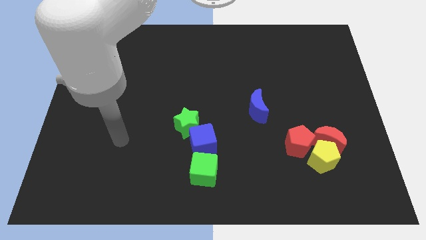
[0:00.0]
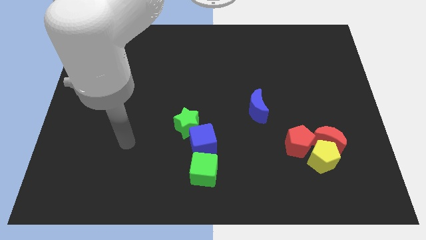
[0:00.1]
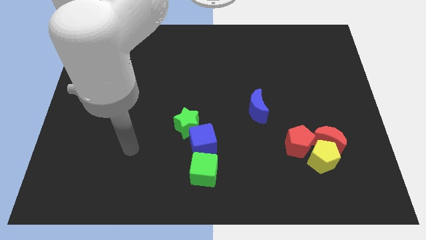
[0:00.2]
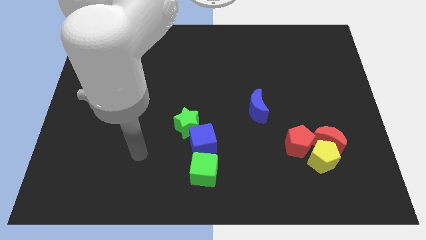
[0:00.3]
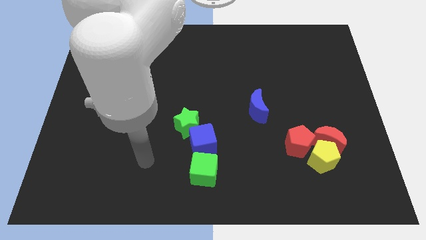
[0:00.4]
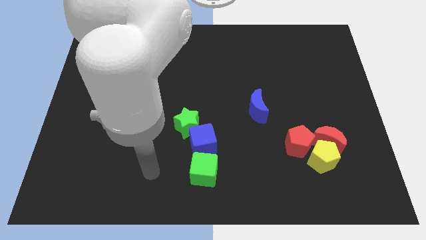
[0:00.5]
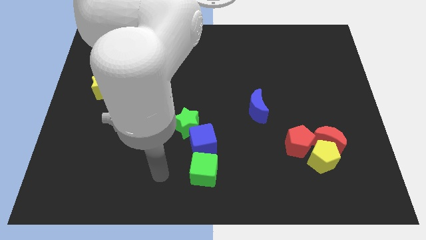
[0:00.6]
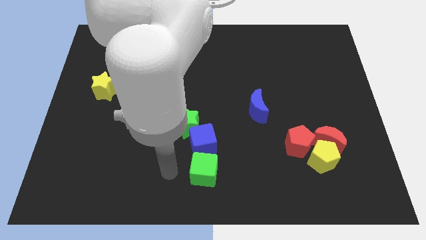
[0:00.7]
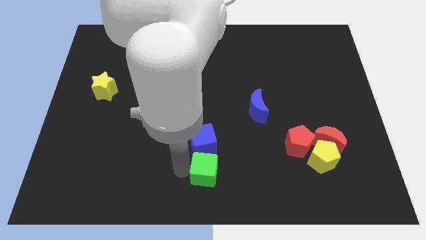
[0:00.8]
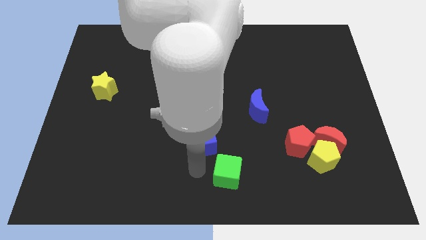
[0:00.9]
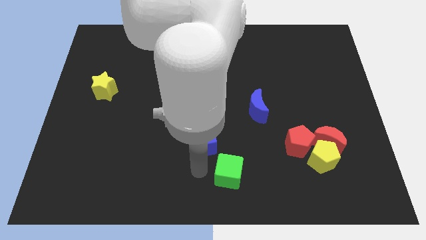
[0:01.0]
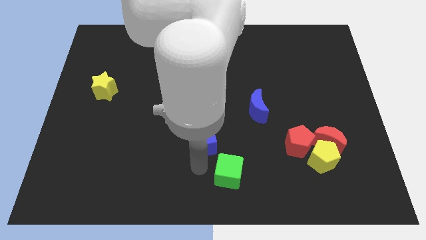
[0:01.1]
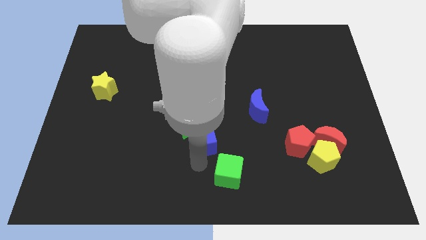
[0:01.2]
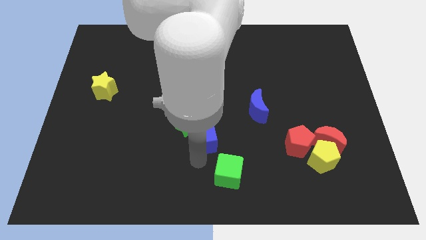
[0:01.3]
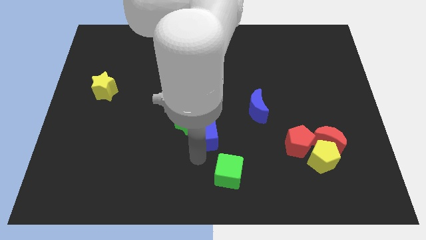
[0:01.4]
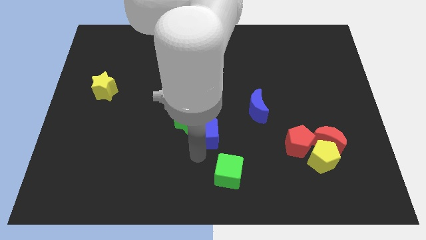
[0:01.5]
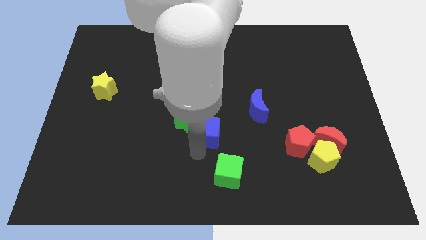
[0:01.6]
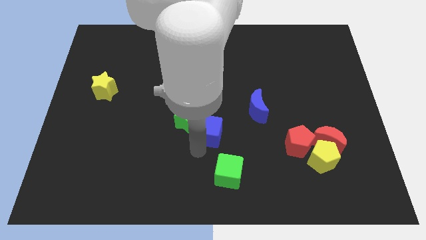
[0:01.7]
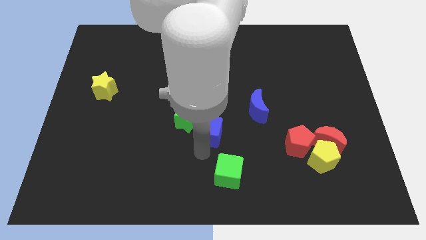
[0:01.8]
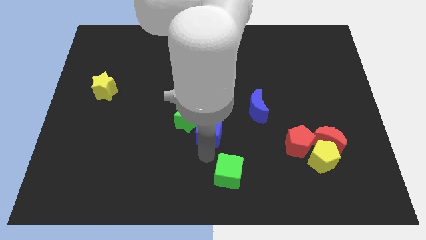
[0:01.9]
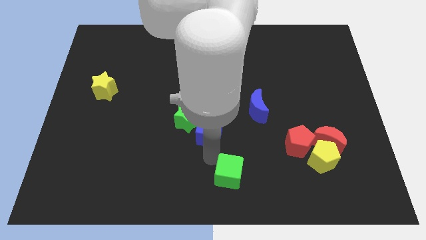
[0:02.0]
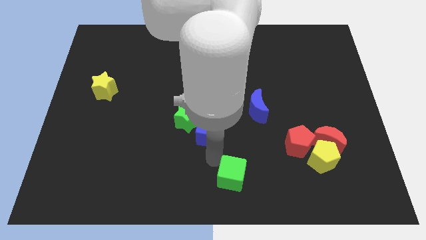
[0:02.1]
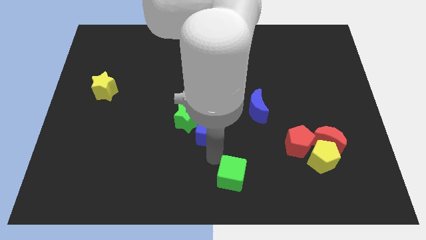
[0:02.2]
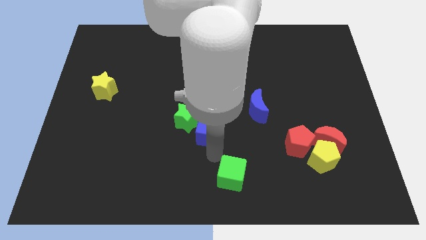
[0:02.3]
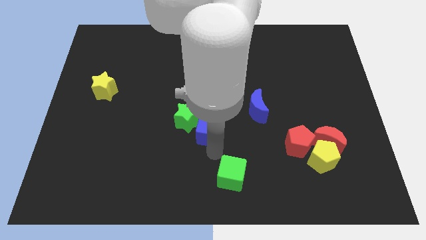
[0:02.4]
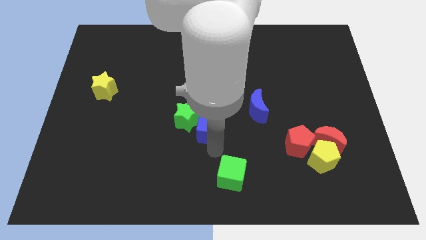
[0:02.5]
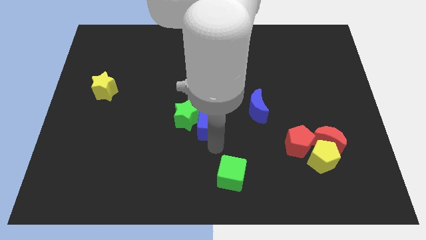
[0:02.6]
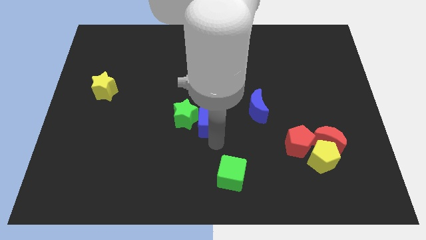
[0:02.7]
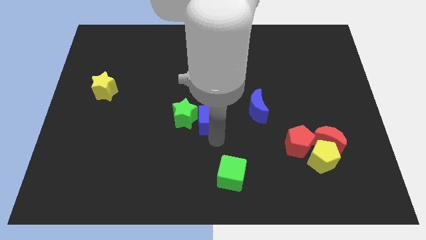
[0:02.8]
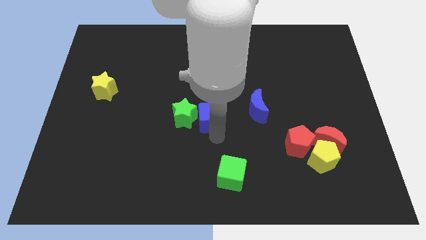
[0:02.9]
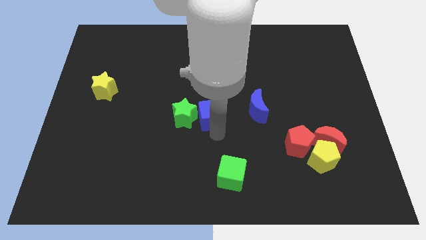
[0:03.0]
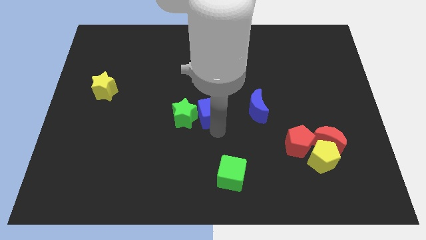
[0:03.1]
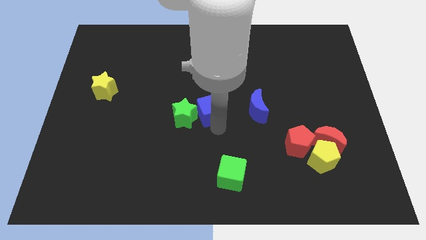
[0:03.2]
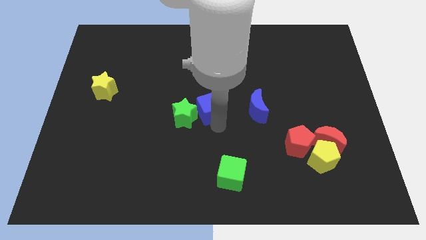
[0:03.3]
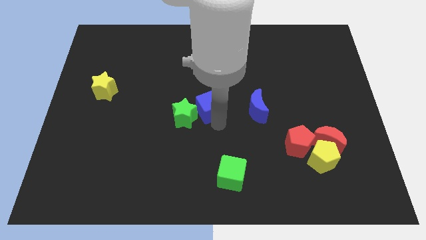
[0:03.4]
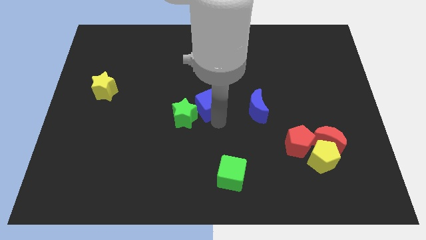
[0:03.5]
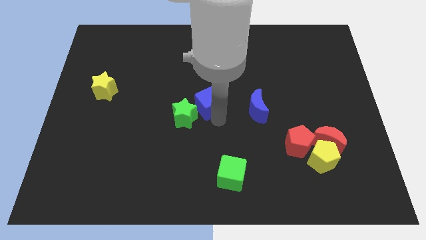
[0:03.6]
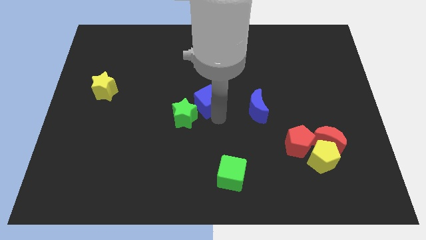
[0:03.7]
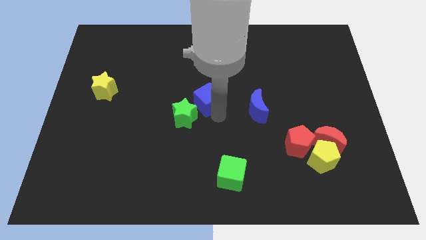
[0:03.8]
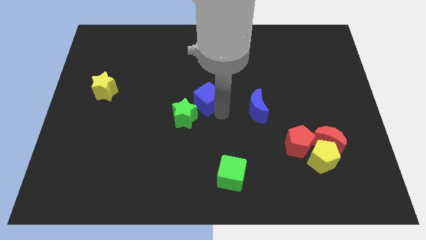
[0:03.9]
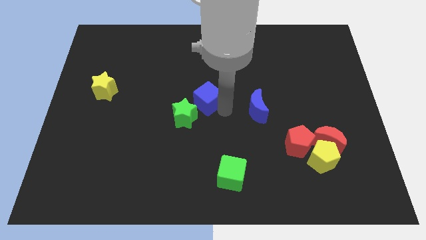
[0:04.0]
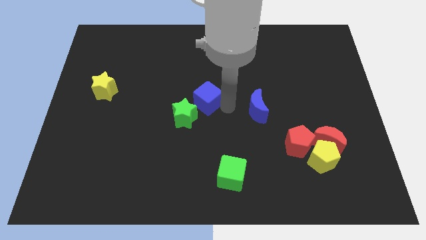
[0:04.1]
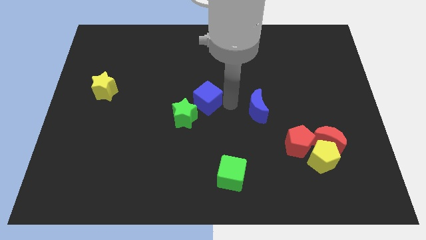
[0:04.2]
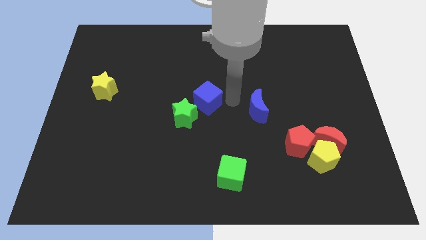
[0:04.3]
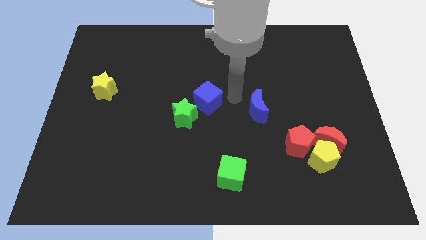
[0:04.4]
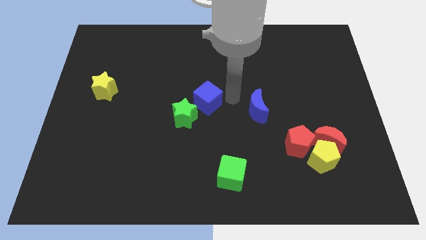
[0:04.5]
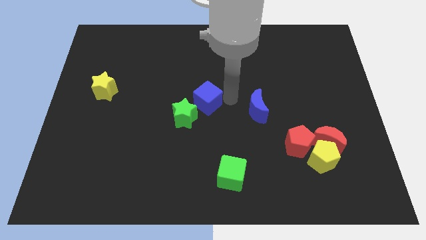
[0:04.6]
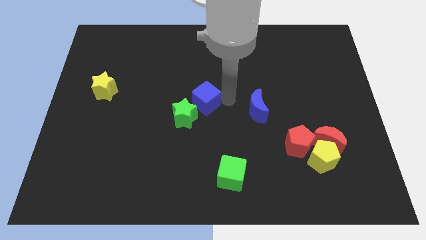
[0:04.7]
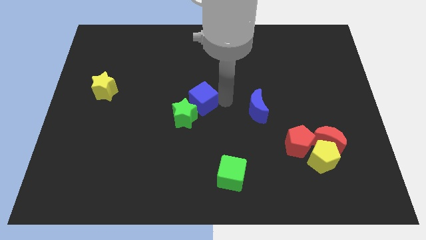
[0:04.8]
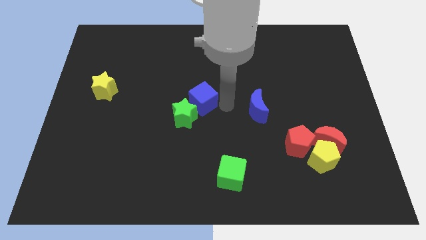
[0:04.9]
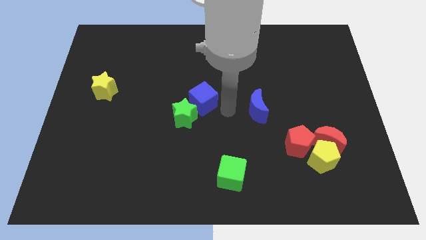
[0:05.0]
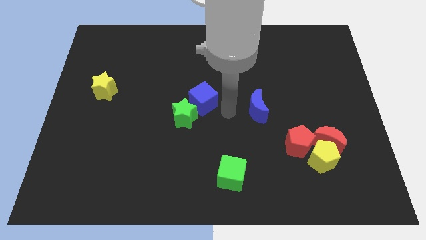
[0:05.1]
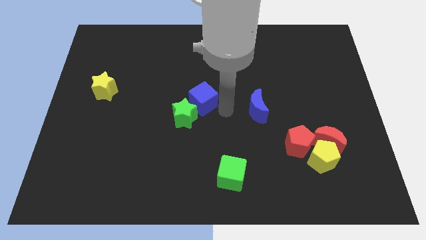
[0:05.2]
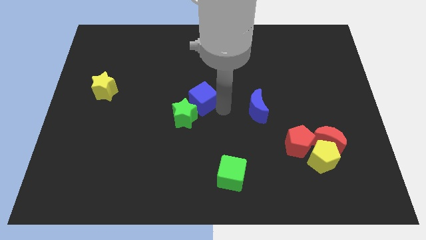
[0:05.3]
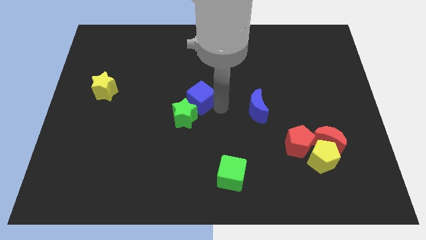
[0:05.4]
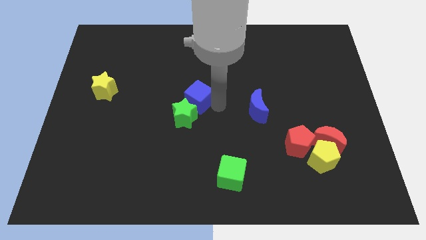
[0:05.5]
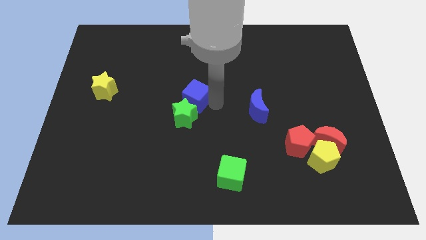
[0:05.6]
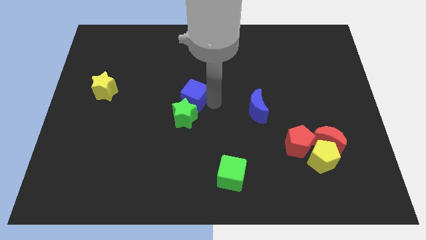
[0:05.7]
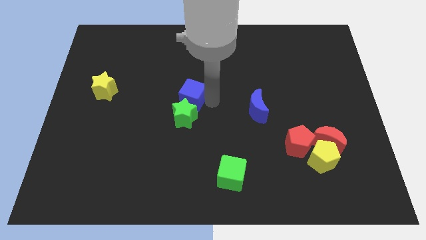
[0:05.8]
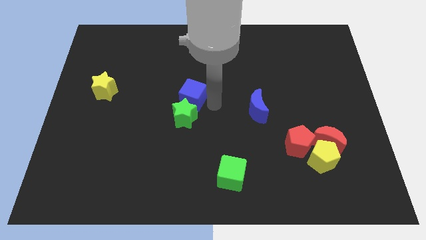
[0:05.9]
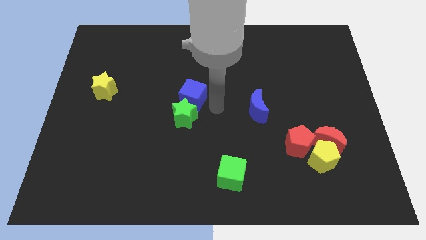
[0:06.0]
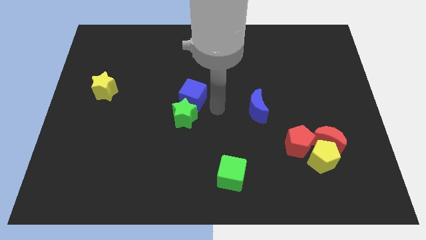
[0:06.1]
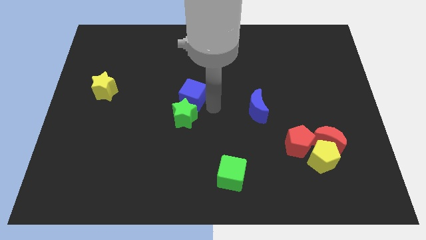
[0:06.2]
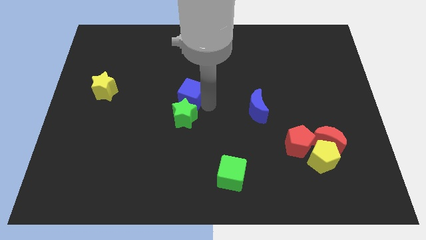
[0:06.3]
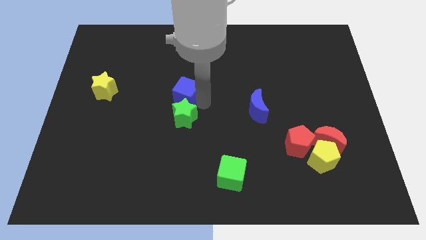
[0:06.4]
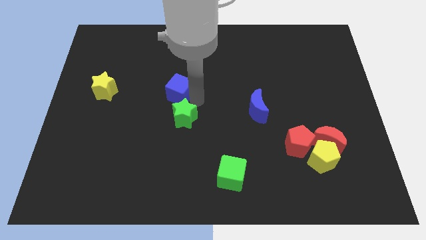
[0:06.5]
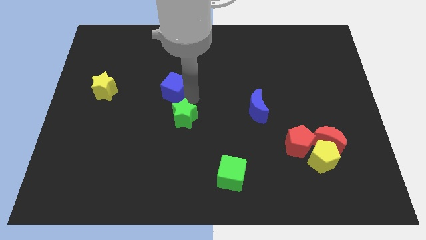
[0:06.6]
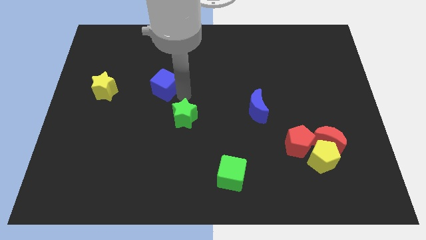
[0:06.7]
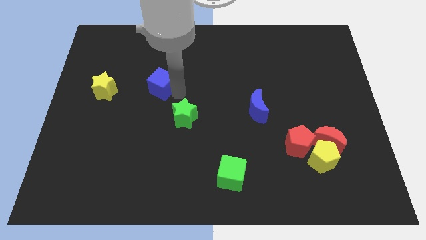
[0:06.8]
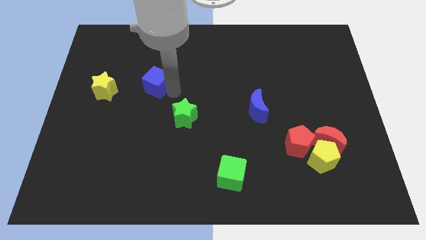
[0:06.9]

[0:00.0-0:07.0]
slide the blue cube upwards and left diagonally

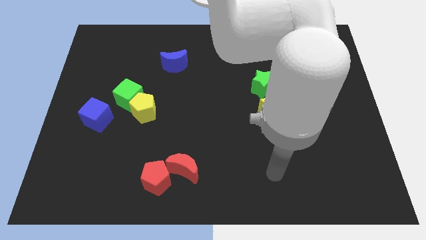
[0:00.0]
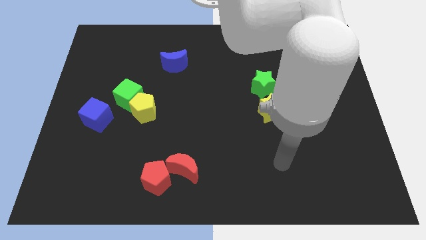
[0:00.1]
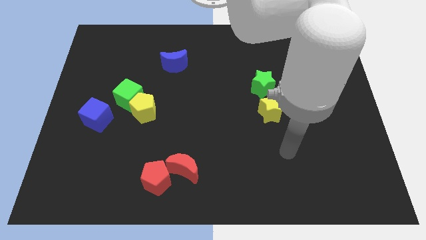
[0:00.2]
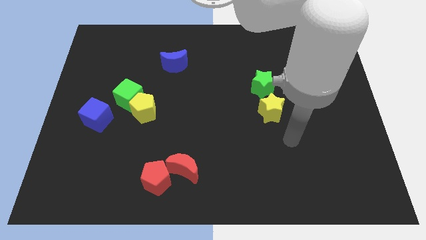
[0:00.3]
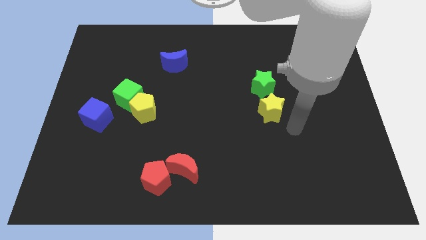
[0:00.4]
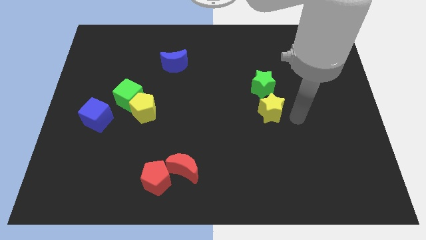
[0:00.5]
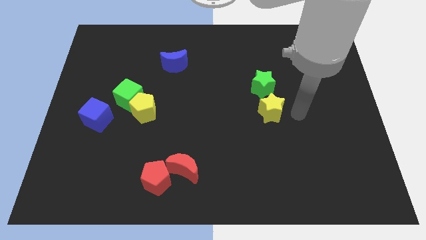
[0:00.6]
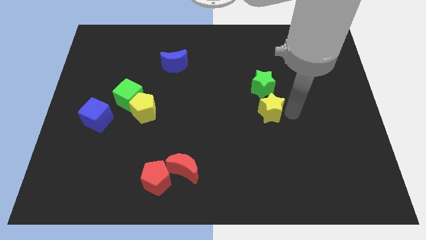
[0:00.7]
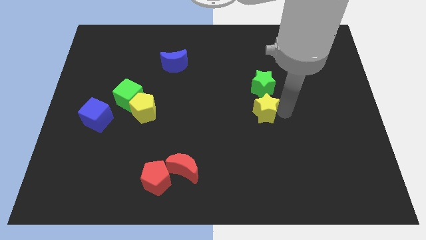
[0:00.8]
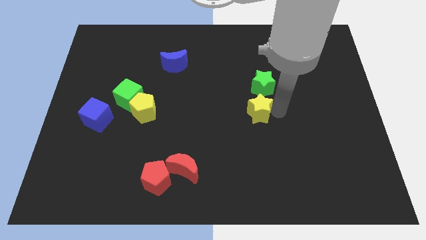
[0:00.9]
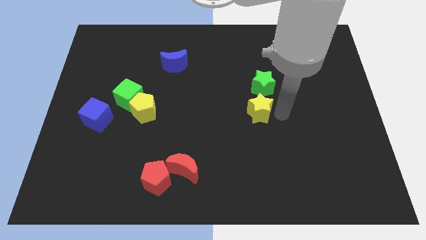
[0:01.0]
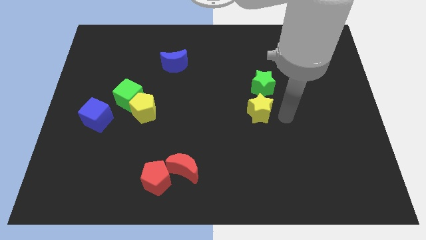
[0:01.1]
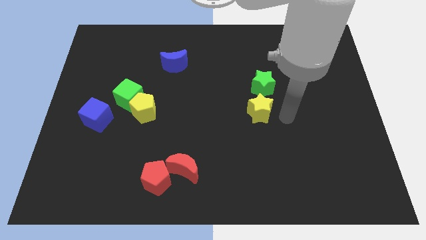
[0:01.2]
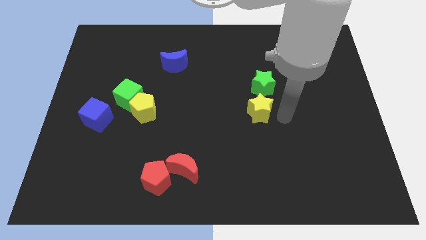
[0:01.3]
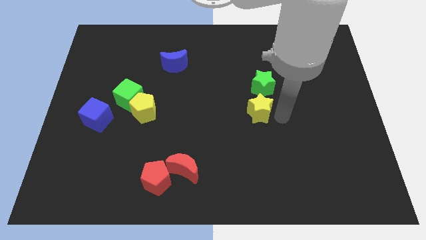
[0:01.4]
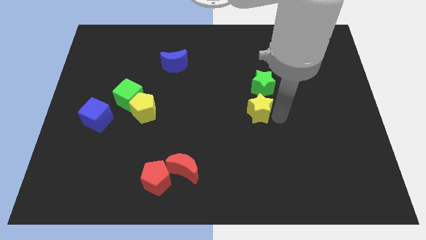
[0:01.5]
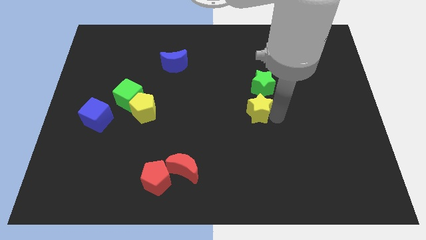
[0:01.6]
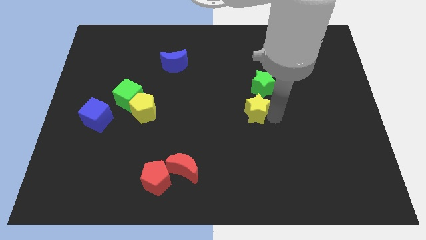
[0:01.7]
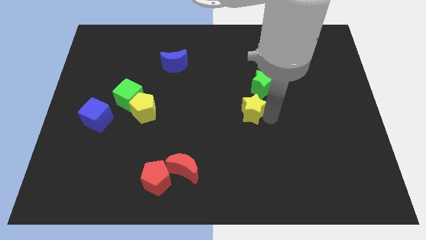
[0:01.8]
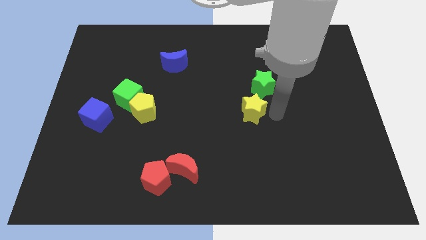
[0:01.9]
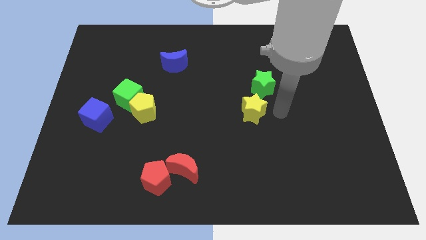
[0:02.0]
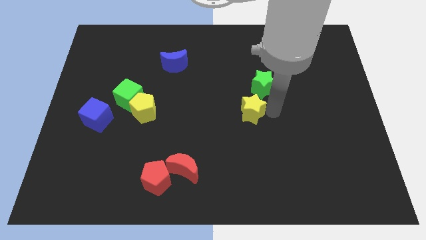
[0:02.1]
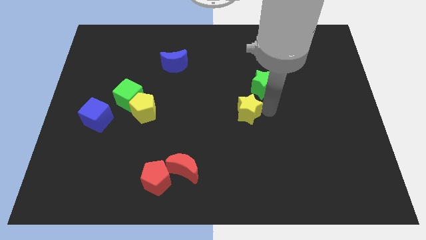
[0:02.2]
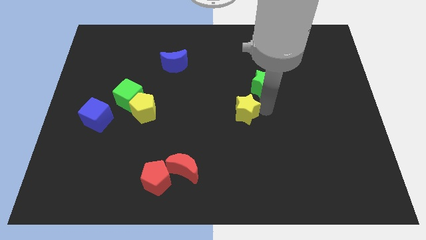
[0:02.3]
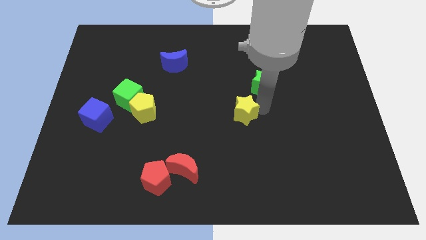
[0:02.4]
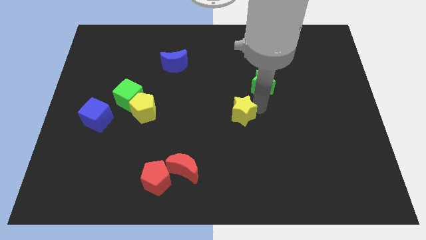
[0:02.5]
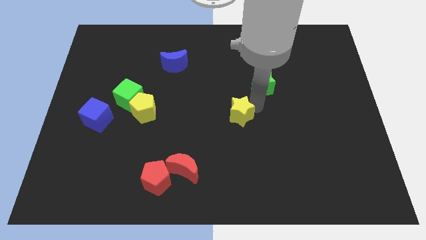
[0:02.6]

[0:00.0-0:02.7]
push the yellow star slightly left
